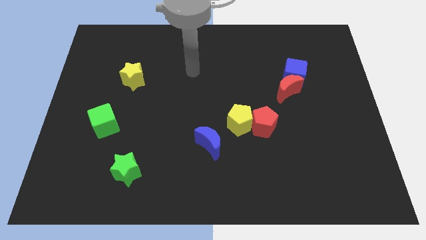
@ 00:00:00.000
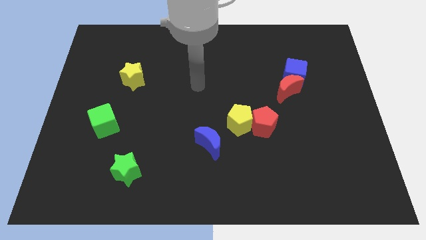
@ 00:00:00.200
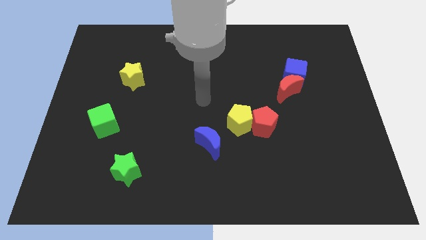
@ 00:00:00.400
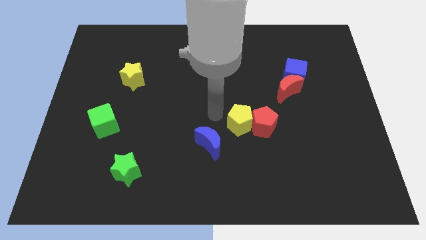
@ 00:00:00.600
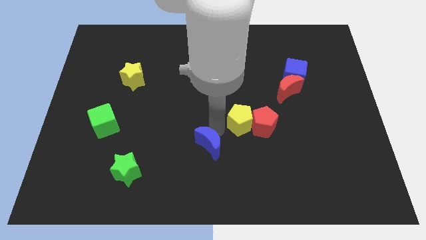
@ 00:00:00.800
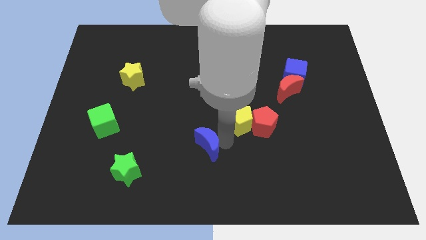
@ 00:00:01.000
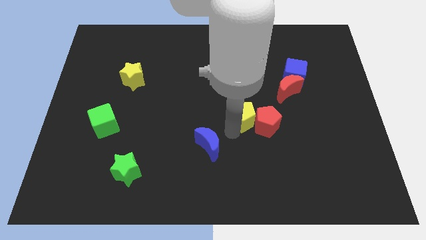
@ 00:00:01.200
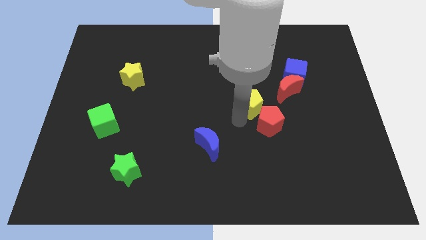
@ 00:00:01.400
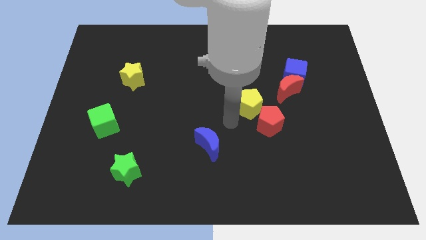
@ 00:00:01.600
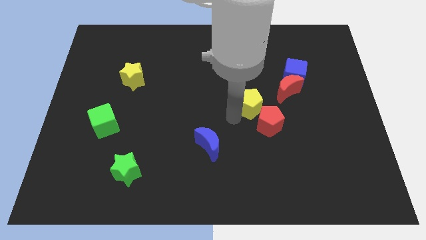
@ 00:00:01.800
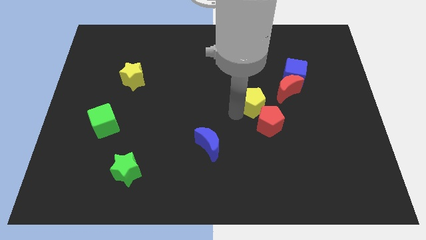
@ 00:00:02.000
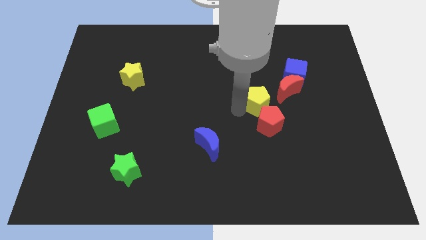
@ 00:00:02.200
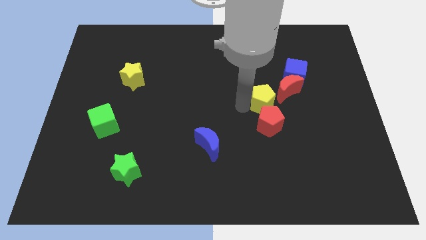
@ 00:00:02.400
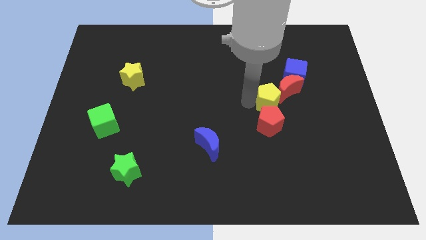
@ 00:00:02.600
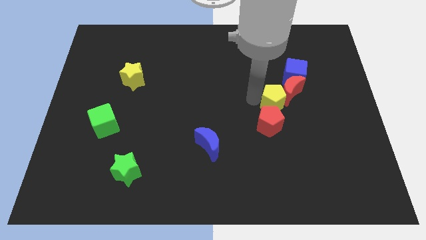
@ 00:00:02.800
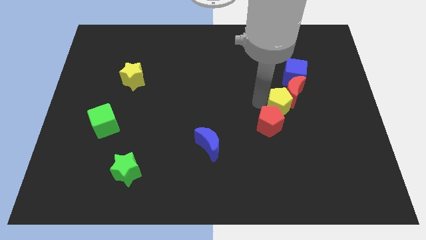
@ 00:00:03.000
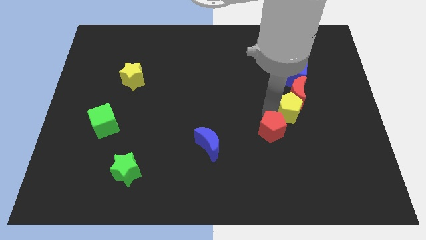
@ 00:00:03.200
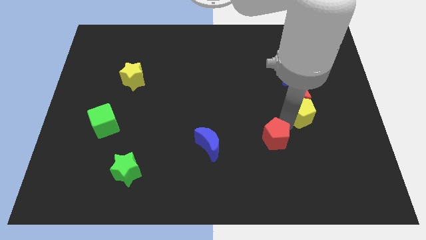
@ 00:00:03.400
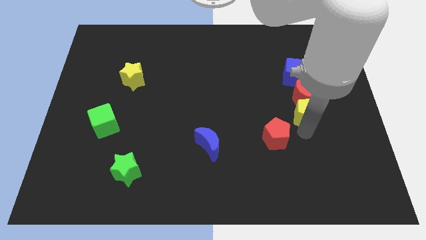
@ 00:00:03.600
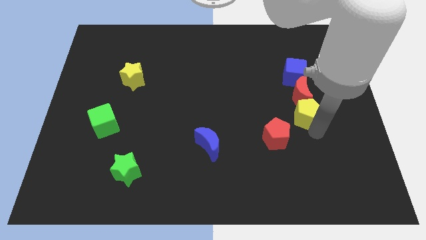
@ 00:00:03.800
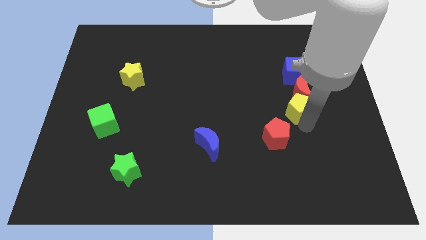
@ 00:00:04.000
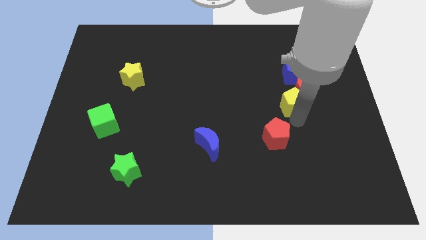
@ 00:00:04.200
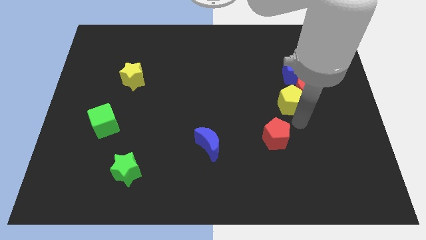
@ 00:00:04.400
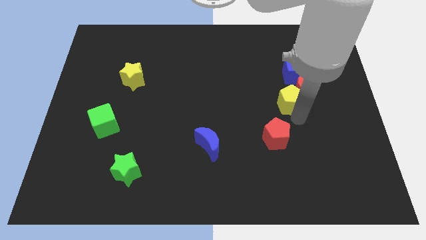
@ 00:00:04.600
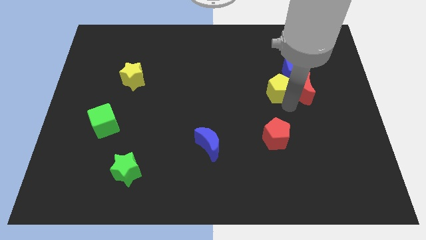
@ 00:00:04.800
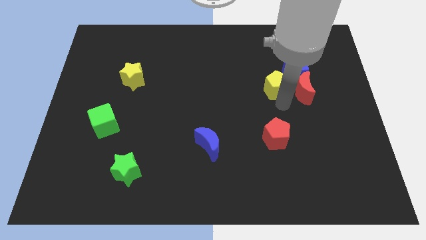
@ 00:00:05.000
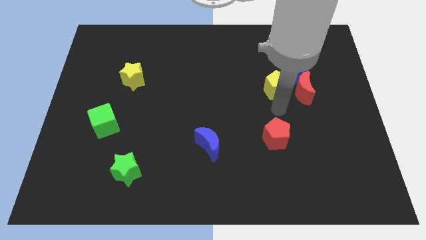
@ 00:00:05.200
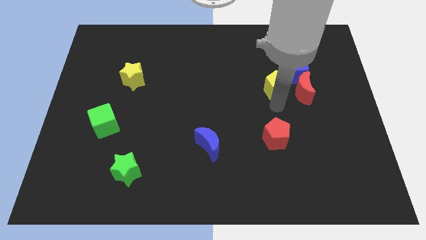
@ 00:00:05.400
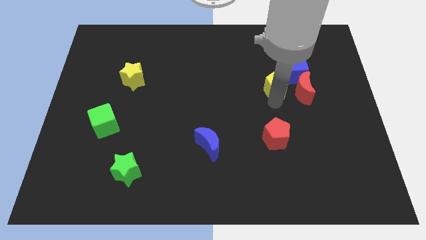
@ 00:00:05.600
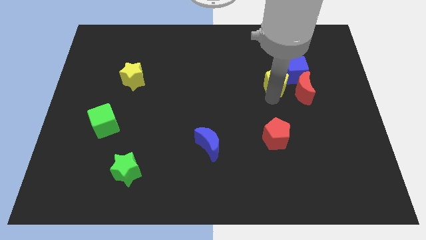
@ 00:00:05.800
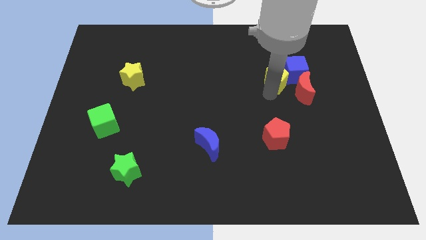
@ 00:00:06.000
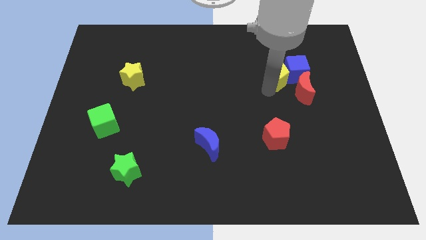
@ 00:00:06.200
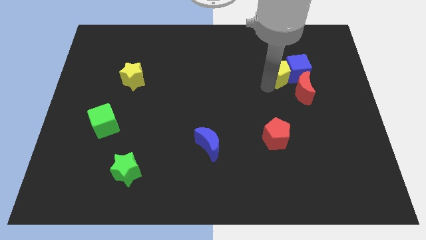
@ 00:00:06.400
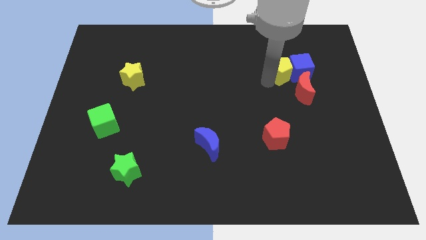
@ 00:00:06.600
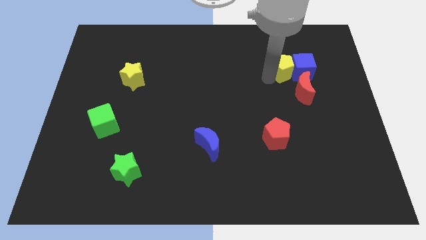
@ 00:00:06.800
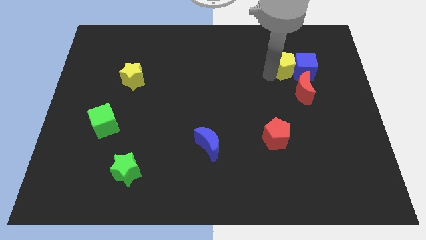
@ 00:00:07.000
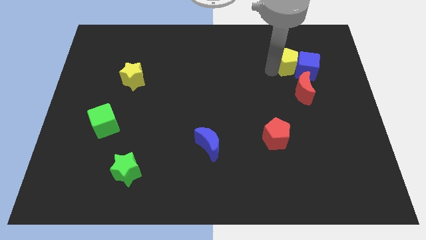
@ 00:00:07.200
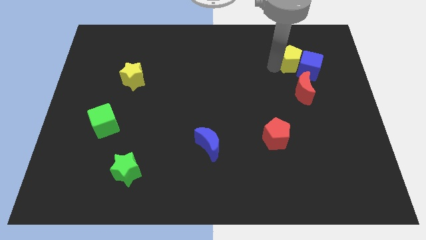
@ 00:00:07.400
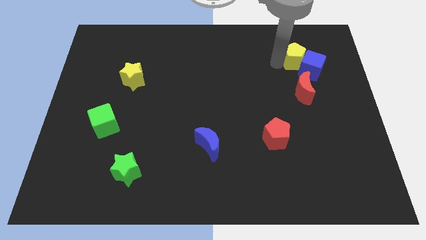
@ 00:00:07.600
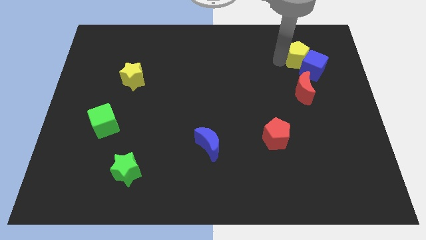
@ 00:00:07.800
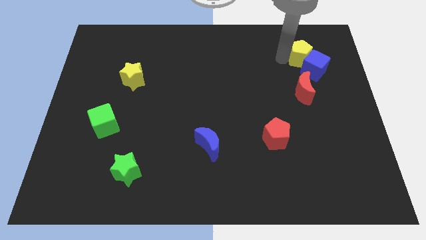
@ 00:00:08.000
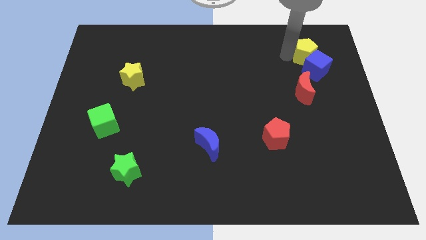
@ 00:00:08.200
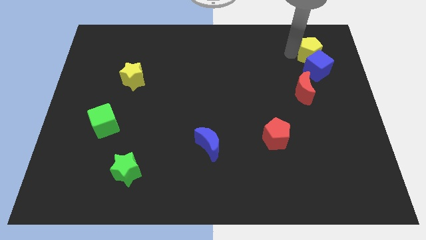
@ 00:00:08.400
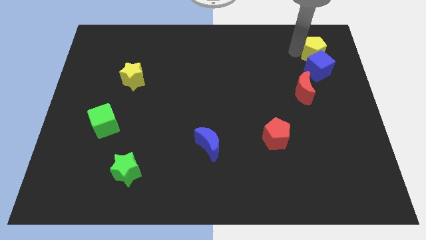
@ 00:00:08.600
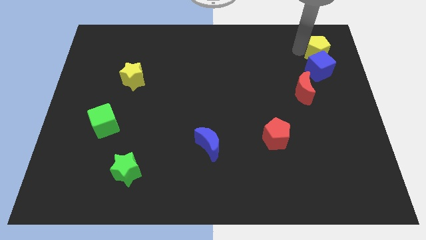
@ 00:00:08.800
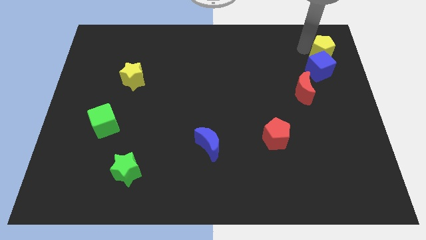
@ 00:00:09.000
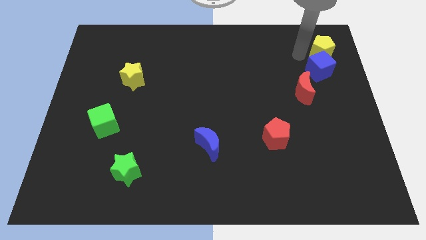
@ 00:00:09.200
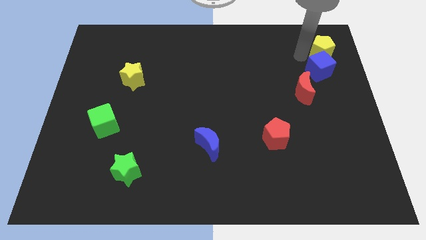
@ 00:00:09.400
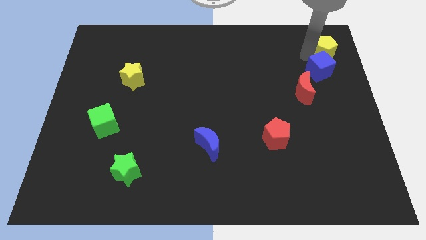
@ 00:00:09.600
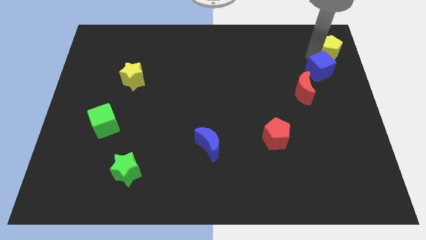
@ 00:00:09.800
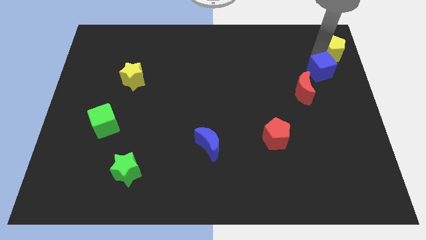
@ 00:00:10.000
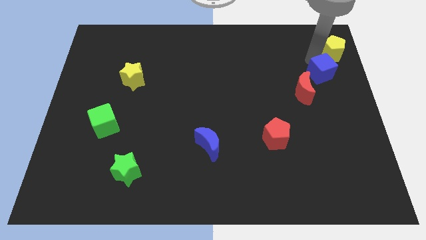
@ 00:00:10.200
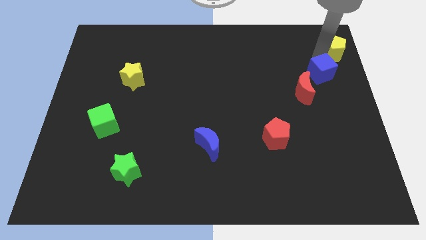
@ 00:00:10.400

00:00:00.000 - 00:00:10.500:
slide the yellow pentagon to the upper right corner

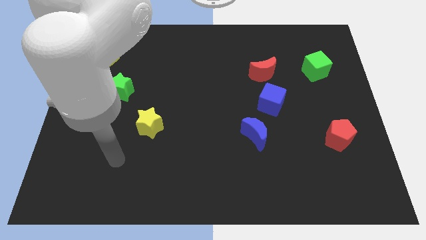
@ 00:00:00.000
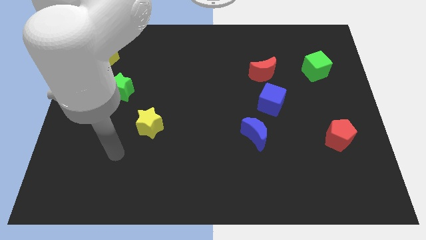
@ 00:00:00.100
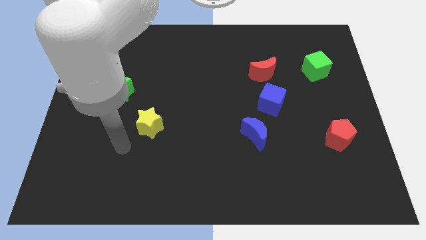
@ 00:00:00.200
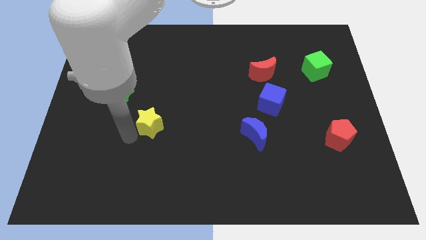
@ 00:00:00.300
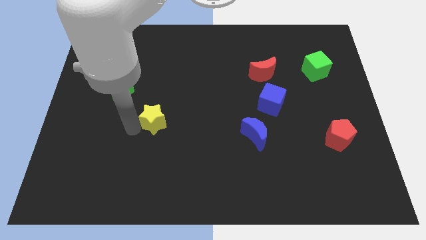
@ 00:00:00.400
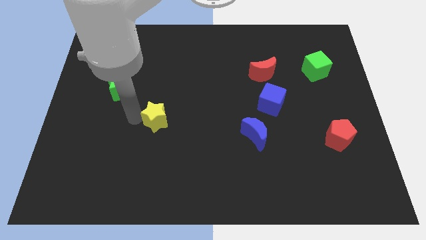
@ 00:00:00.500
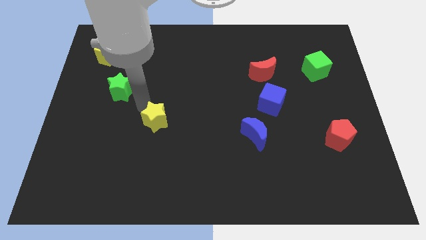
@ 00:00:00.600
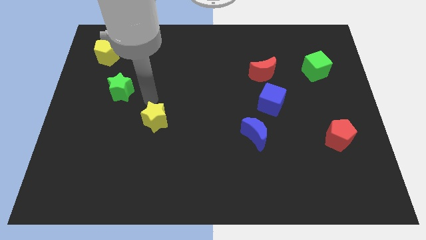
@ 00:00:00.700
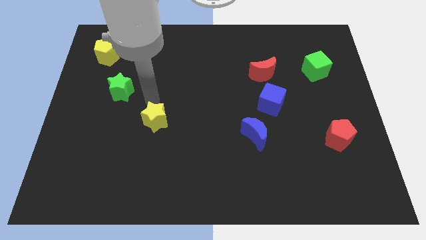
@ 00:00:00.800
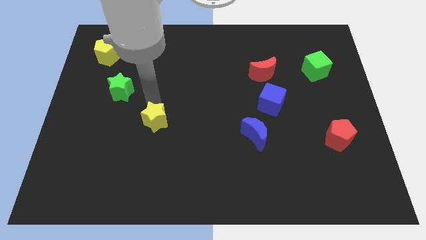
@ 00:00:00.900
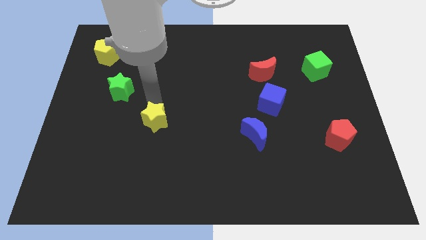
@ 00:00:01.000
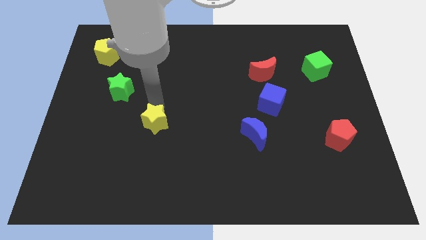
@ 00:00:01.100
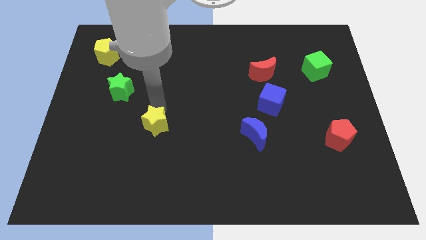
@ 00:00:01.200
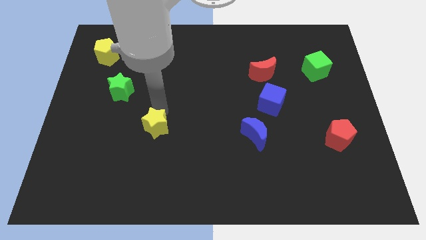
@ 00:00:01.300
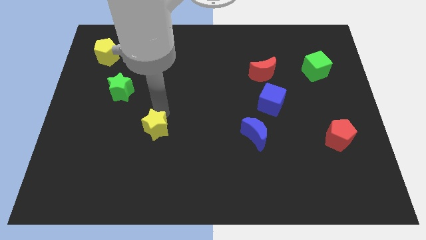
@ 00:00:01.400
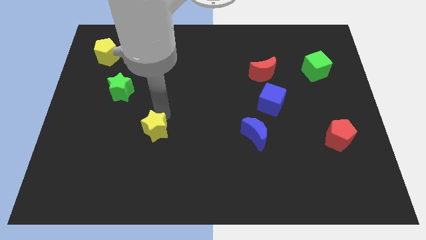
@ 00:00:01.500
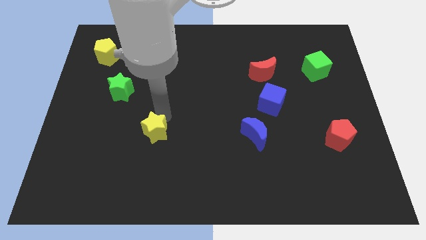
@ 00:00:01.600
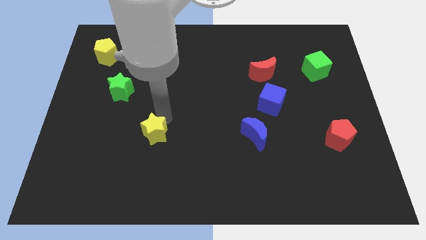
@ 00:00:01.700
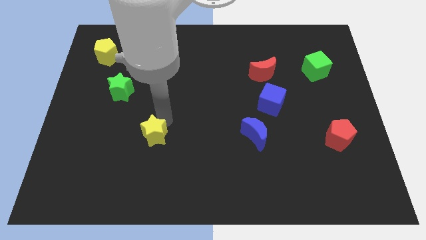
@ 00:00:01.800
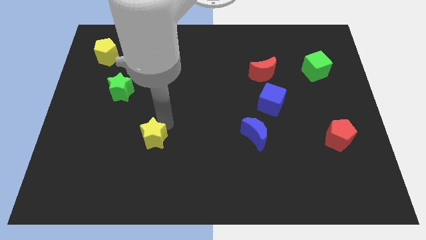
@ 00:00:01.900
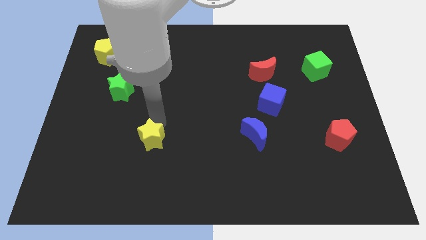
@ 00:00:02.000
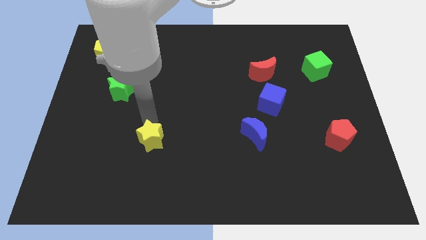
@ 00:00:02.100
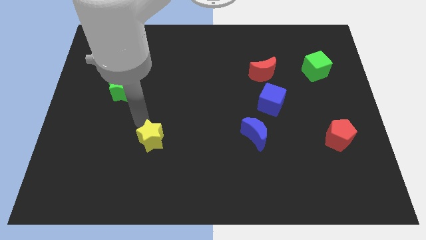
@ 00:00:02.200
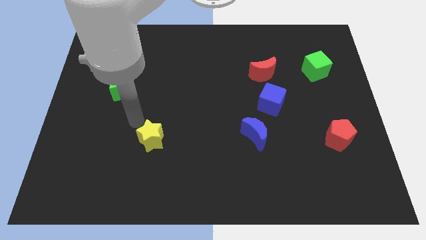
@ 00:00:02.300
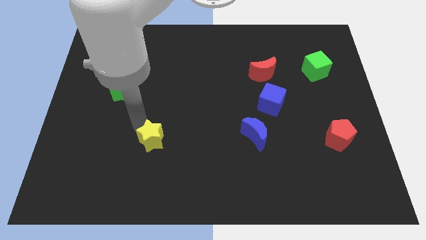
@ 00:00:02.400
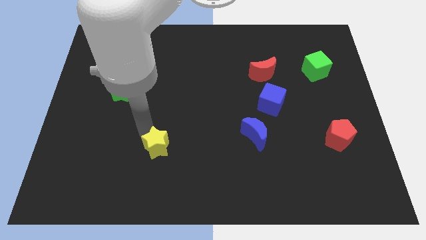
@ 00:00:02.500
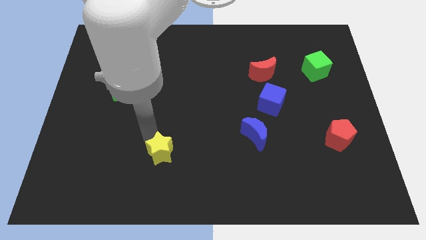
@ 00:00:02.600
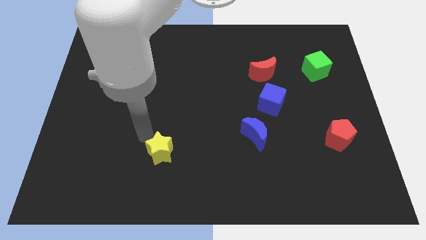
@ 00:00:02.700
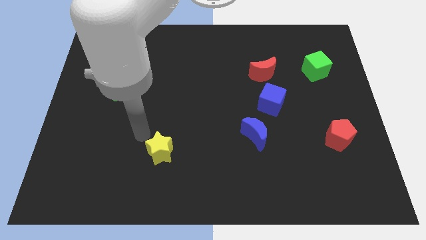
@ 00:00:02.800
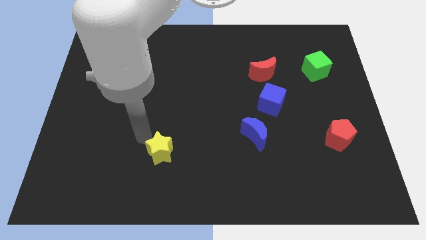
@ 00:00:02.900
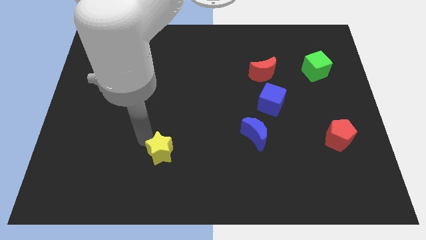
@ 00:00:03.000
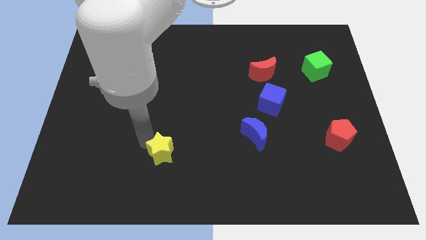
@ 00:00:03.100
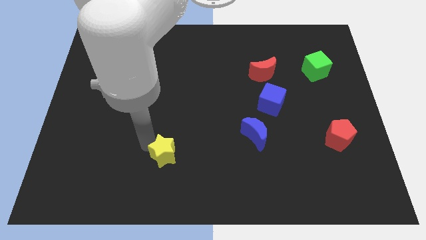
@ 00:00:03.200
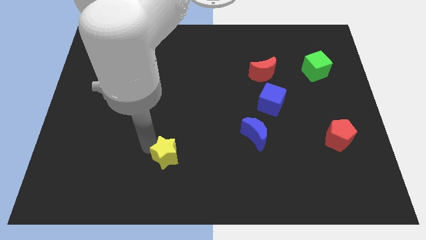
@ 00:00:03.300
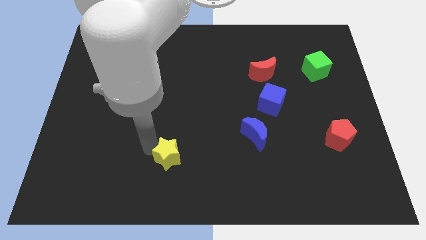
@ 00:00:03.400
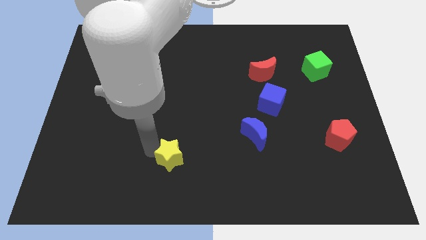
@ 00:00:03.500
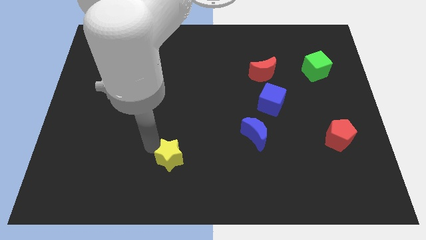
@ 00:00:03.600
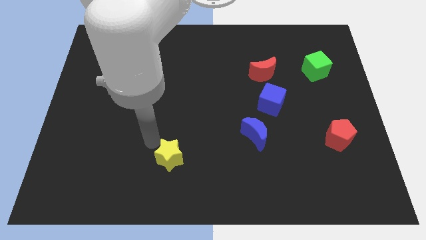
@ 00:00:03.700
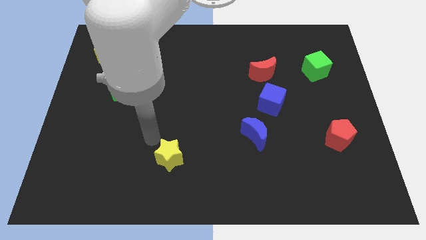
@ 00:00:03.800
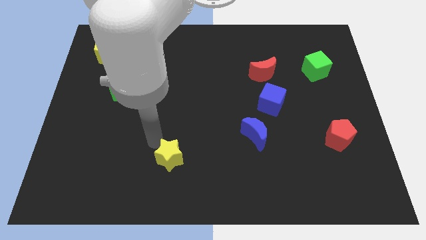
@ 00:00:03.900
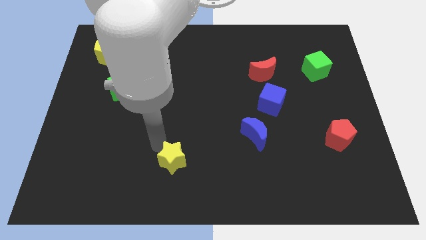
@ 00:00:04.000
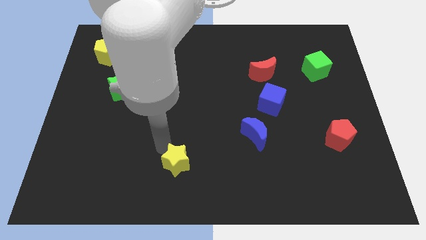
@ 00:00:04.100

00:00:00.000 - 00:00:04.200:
push the yellow star to the bottom
